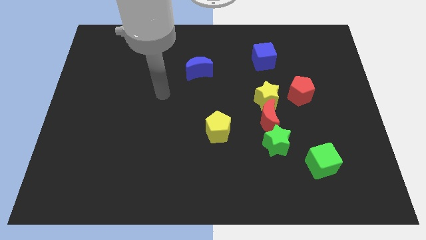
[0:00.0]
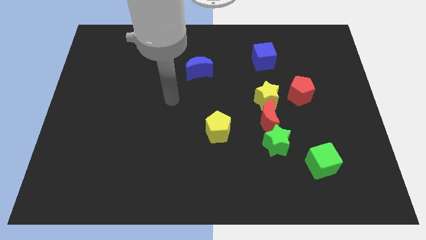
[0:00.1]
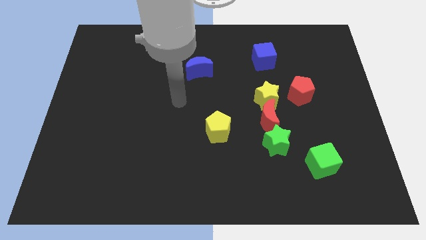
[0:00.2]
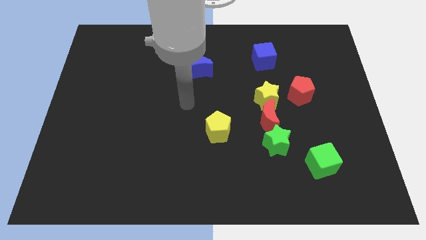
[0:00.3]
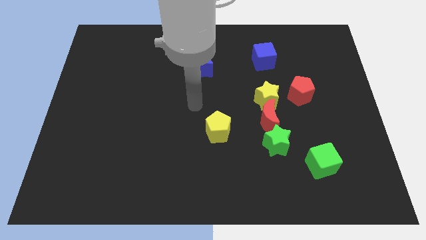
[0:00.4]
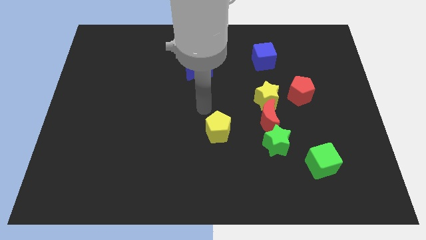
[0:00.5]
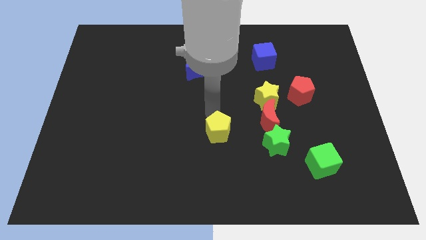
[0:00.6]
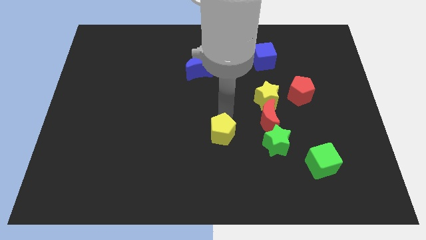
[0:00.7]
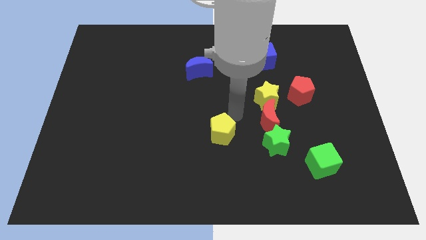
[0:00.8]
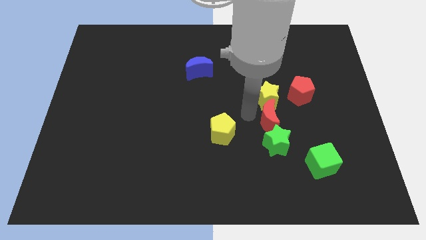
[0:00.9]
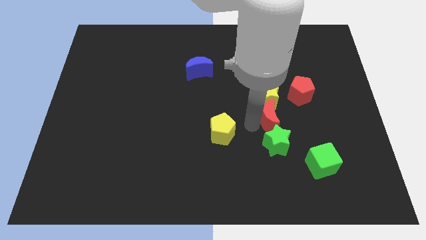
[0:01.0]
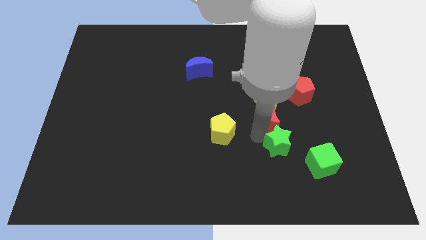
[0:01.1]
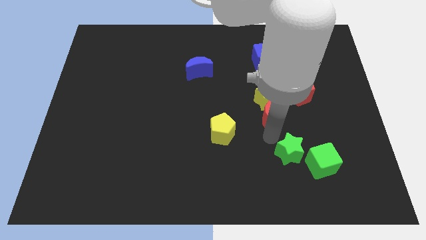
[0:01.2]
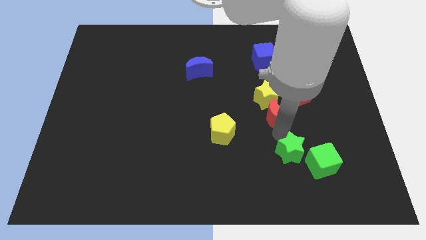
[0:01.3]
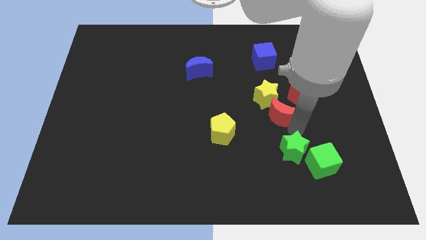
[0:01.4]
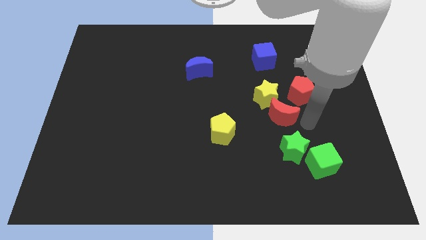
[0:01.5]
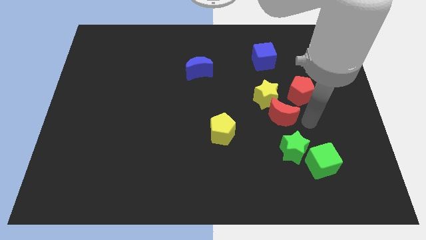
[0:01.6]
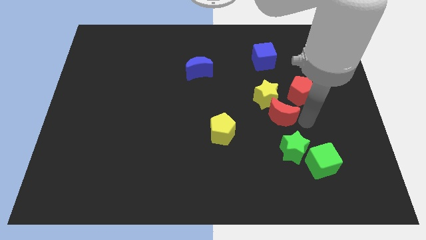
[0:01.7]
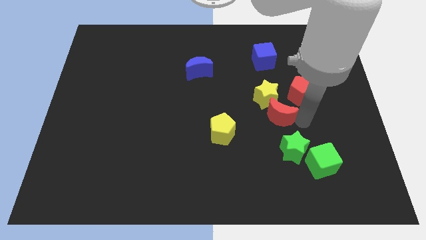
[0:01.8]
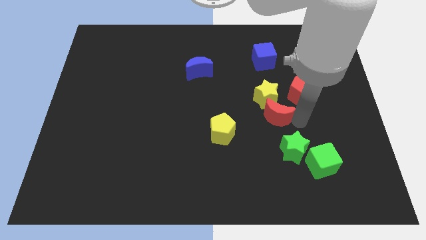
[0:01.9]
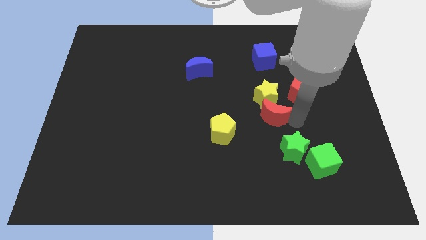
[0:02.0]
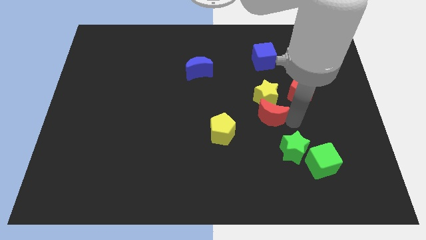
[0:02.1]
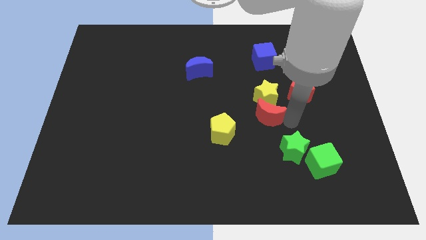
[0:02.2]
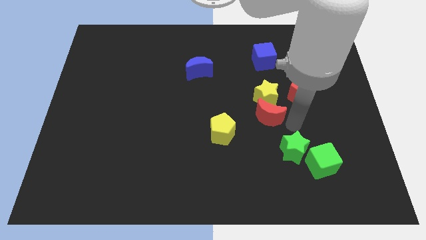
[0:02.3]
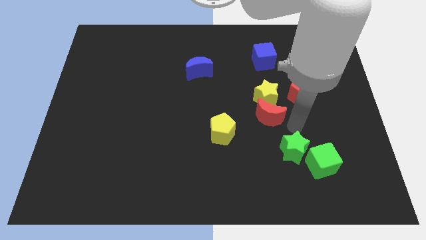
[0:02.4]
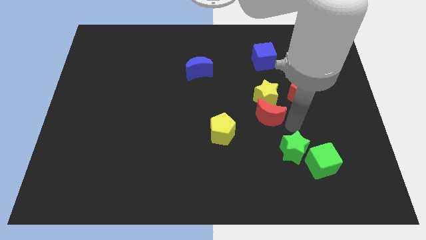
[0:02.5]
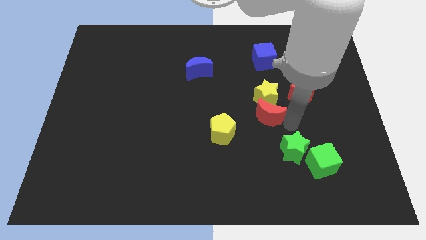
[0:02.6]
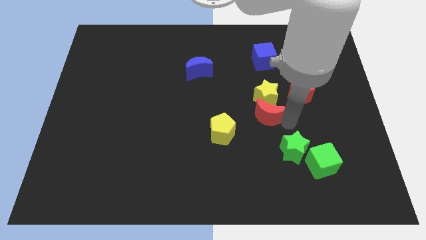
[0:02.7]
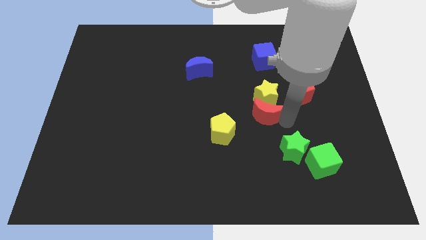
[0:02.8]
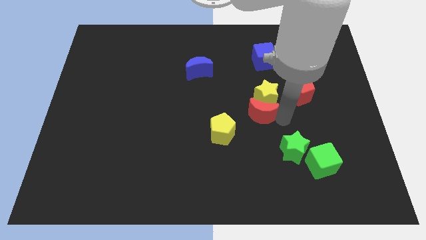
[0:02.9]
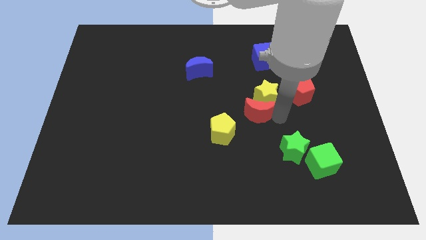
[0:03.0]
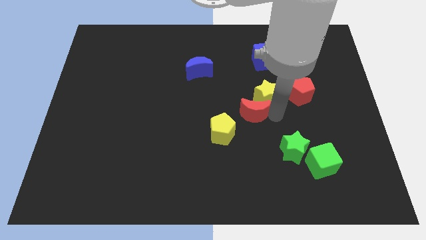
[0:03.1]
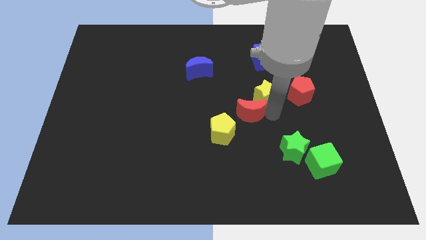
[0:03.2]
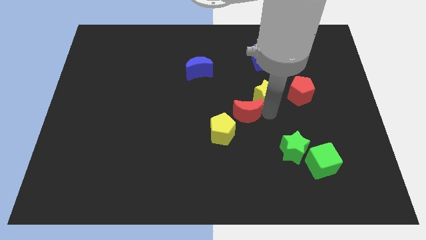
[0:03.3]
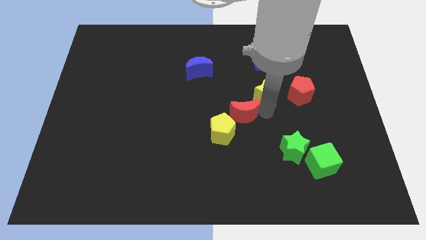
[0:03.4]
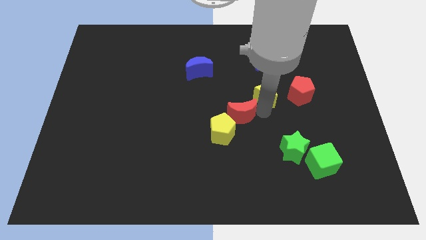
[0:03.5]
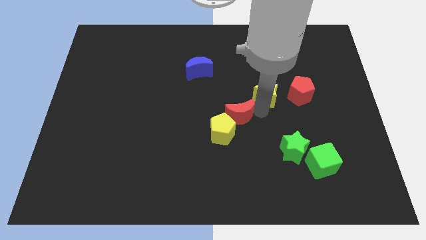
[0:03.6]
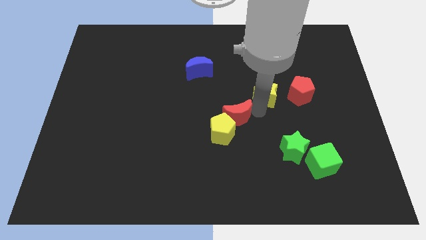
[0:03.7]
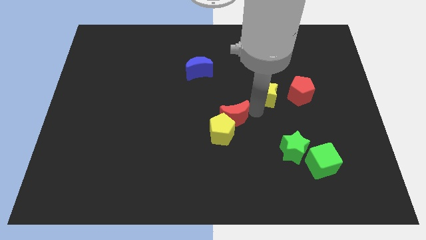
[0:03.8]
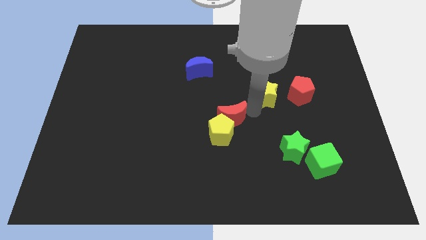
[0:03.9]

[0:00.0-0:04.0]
pull the red moon apart from the yellow star and green star

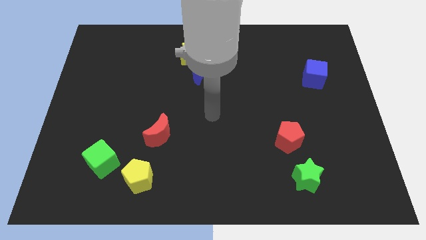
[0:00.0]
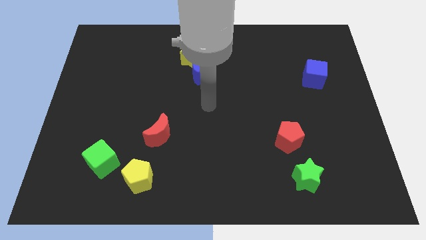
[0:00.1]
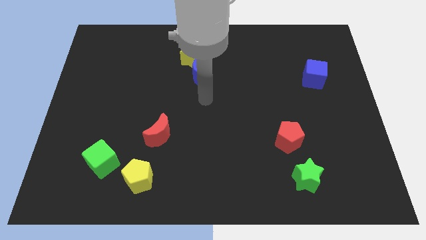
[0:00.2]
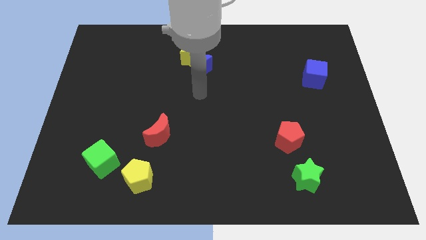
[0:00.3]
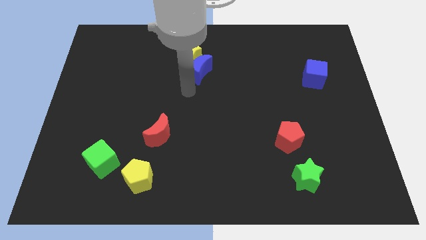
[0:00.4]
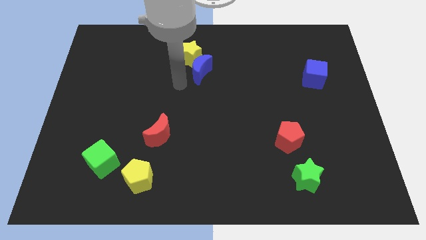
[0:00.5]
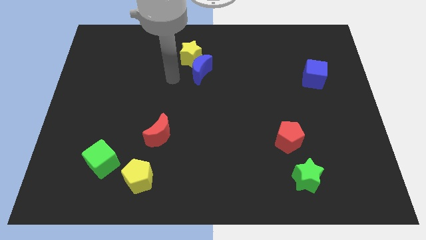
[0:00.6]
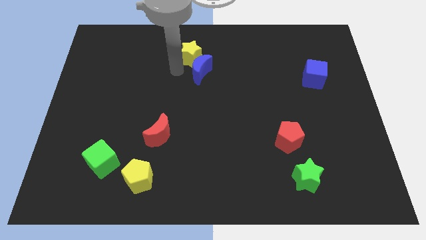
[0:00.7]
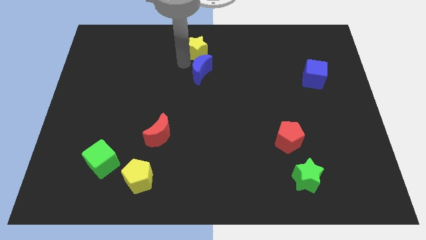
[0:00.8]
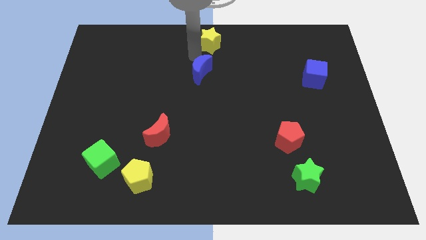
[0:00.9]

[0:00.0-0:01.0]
move the blue moon away from the yellow star

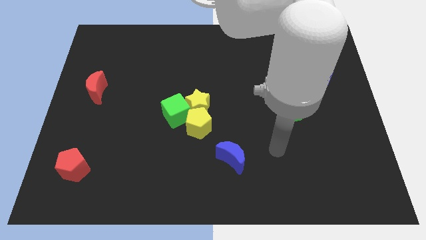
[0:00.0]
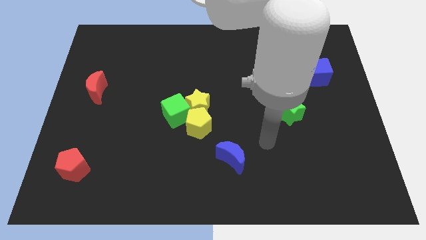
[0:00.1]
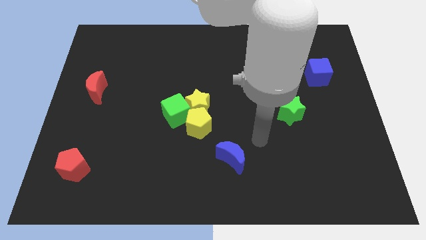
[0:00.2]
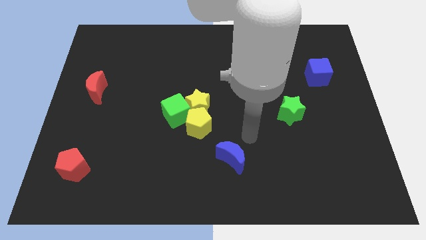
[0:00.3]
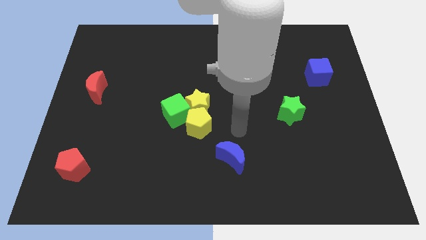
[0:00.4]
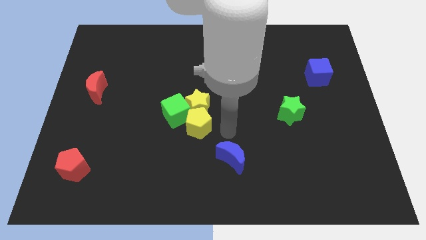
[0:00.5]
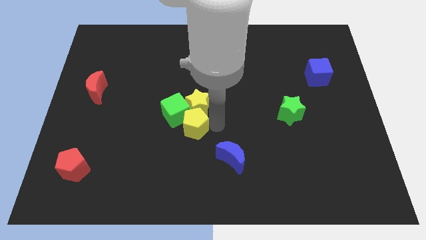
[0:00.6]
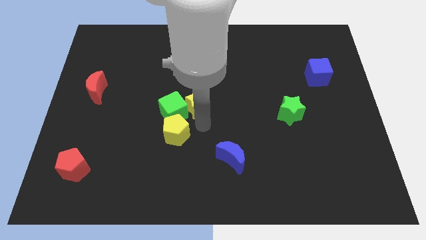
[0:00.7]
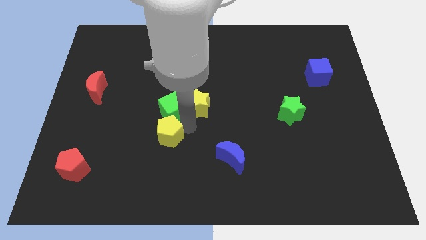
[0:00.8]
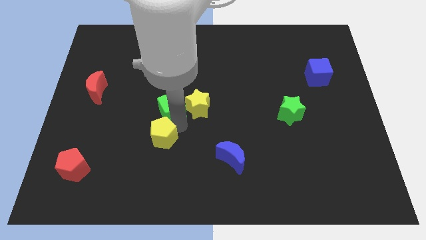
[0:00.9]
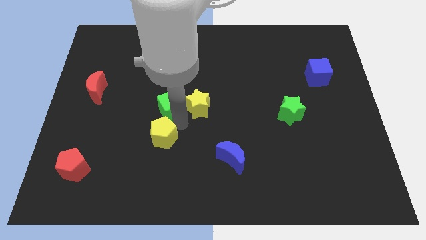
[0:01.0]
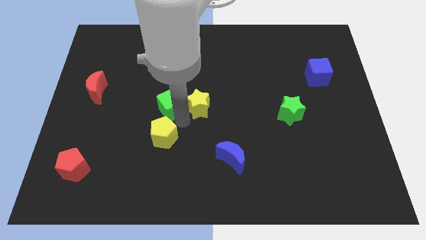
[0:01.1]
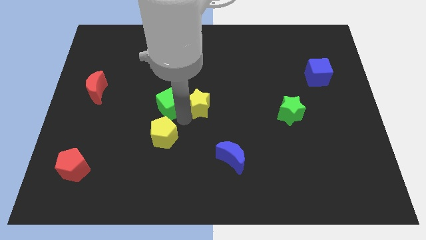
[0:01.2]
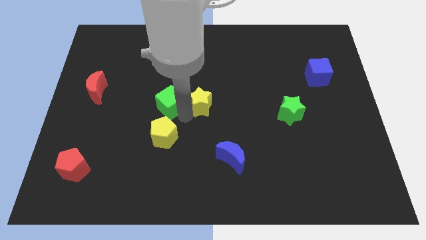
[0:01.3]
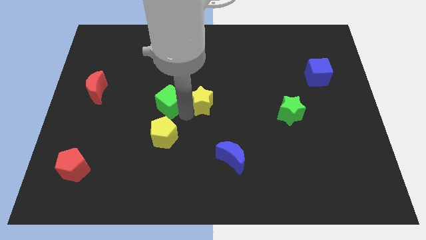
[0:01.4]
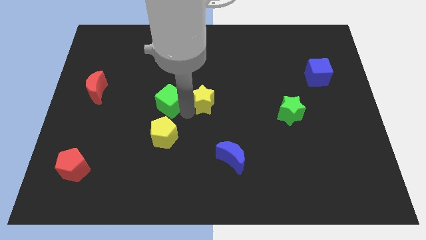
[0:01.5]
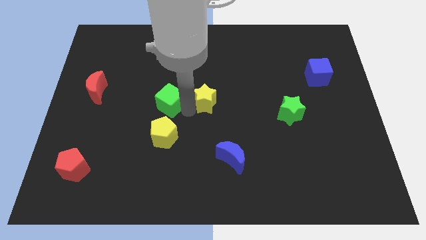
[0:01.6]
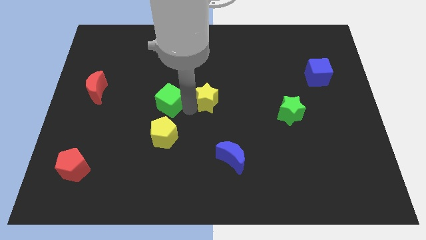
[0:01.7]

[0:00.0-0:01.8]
move the yellow star away from the yellow pentagon and green cube

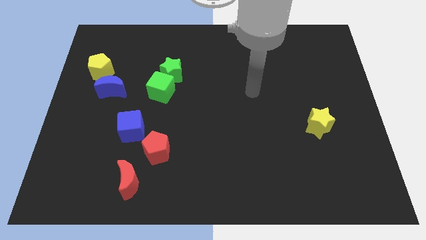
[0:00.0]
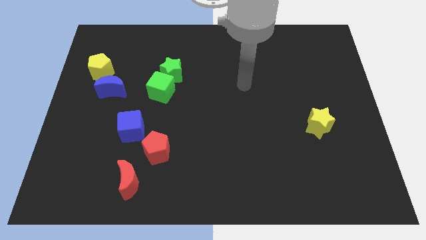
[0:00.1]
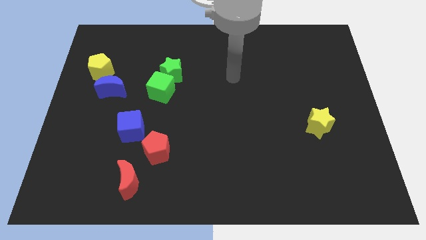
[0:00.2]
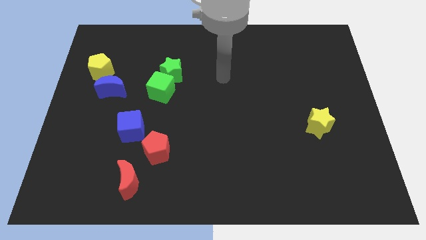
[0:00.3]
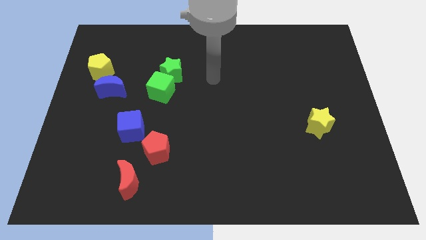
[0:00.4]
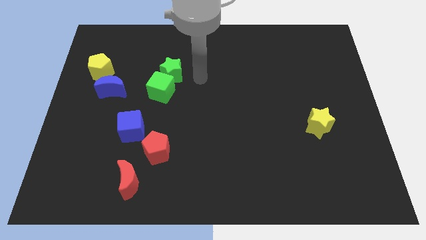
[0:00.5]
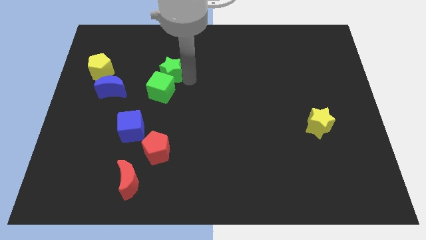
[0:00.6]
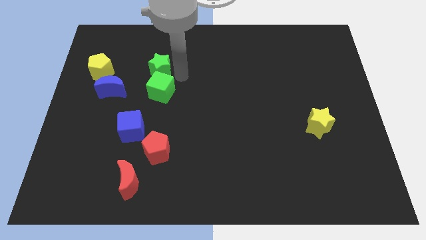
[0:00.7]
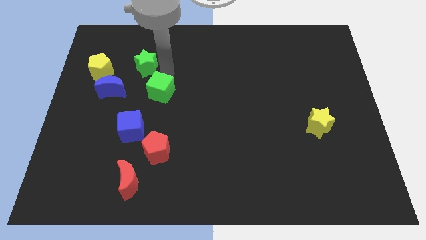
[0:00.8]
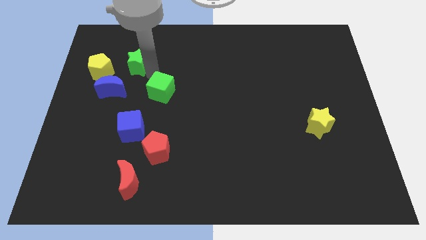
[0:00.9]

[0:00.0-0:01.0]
pull the green cube apart from the green star

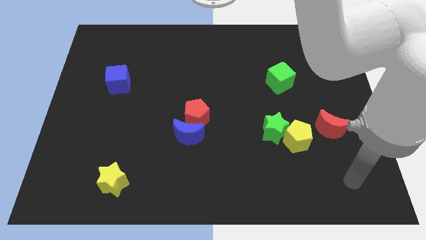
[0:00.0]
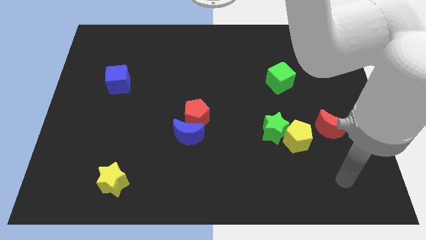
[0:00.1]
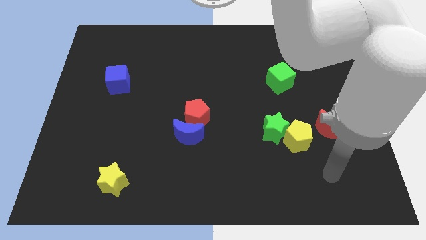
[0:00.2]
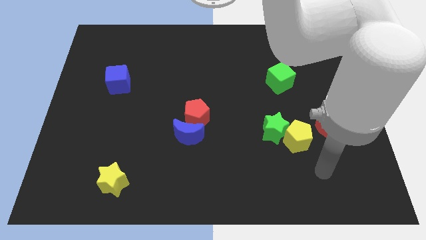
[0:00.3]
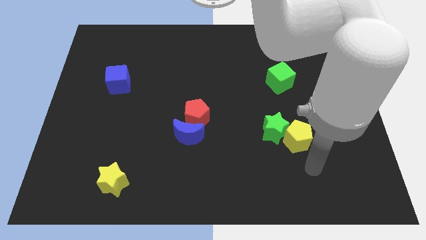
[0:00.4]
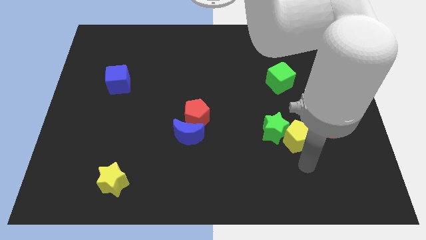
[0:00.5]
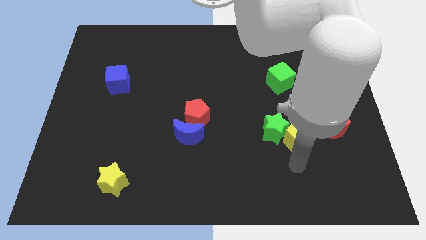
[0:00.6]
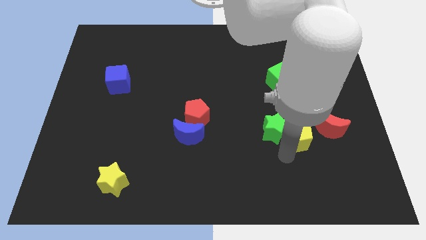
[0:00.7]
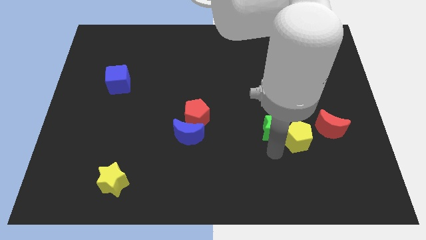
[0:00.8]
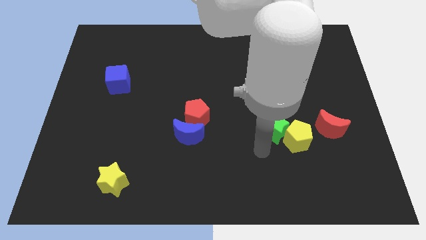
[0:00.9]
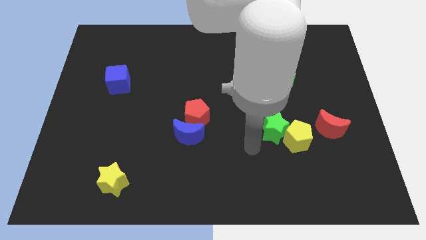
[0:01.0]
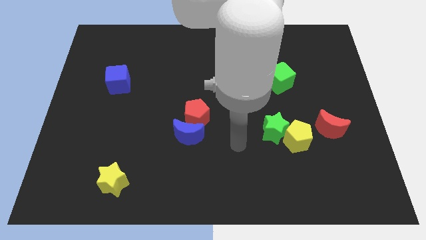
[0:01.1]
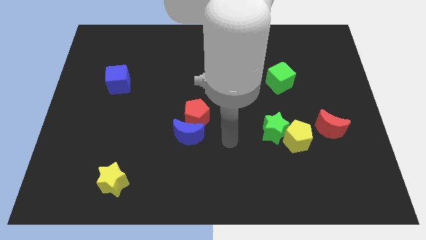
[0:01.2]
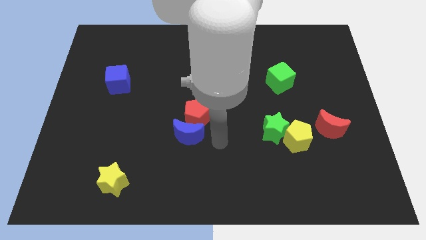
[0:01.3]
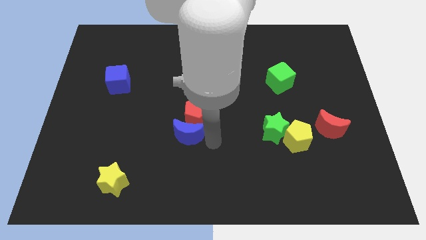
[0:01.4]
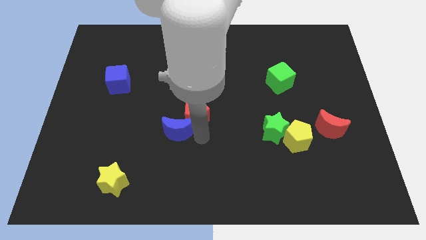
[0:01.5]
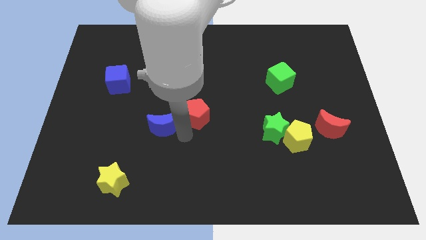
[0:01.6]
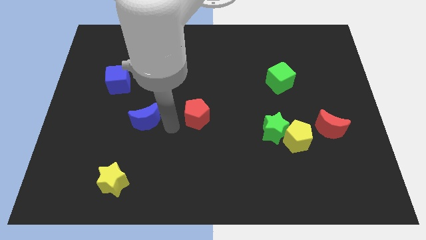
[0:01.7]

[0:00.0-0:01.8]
move the red pentagon away from the blue moon
